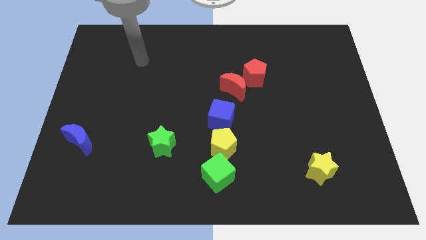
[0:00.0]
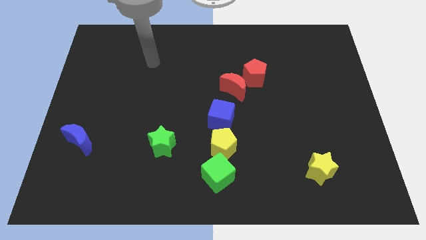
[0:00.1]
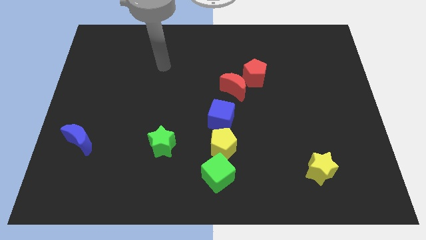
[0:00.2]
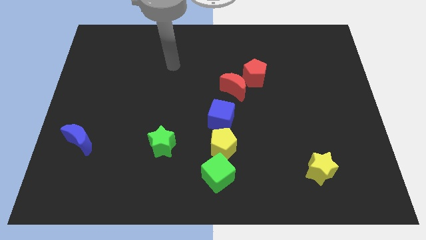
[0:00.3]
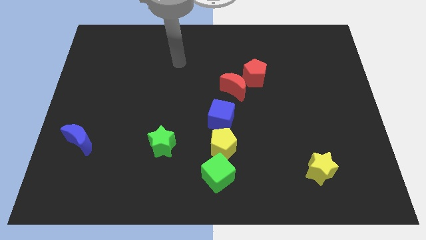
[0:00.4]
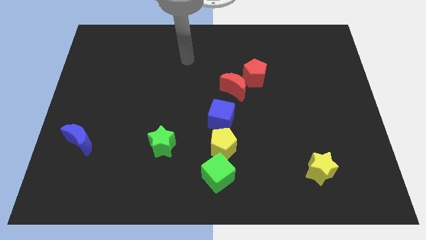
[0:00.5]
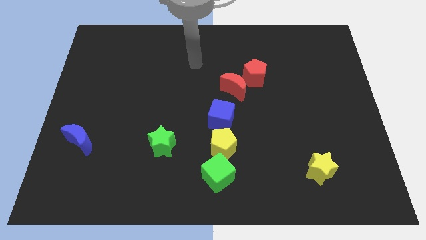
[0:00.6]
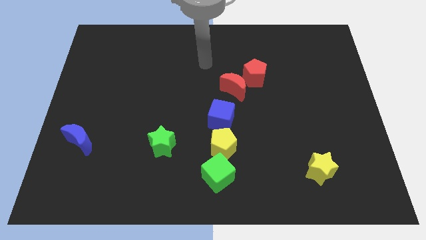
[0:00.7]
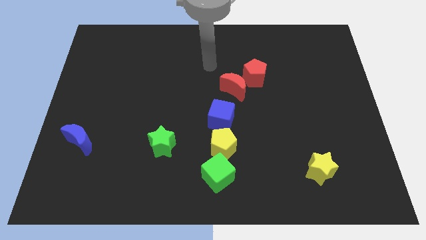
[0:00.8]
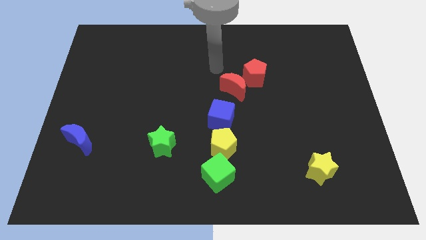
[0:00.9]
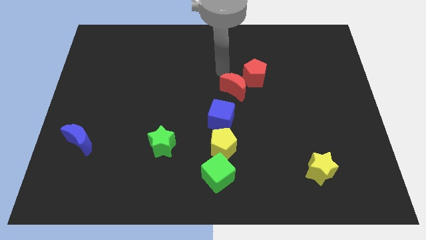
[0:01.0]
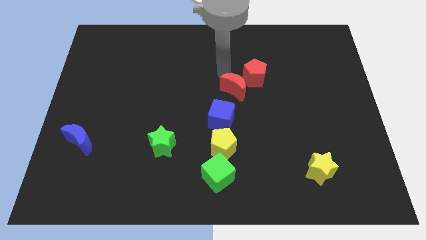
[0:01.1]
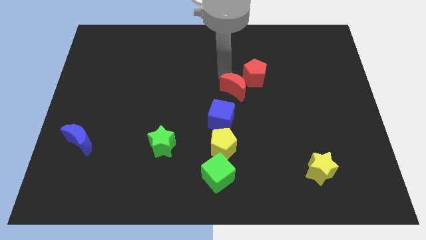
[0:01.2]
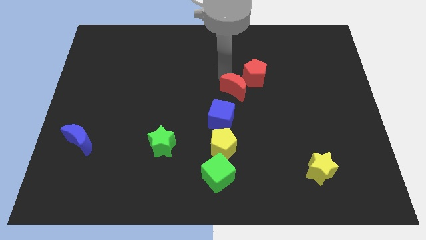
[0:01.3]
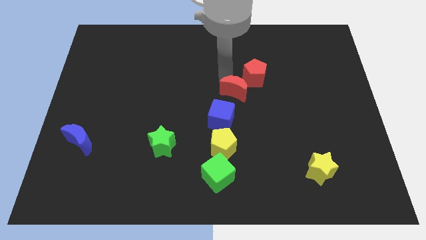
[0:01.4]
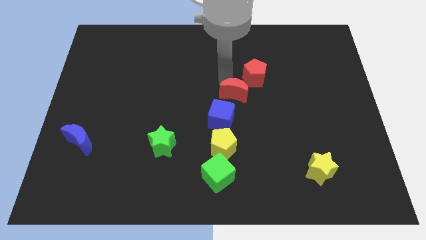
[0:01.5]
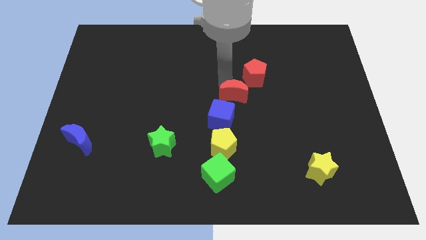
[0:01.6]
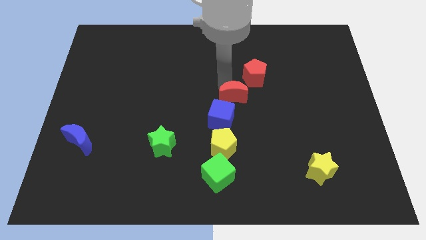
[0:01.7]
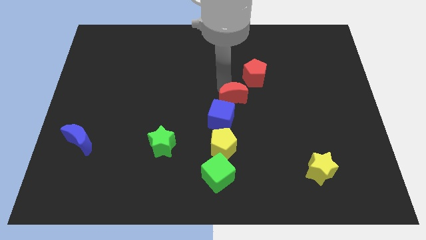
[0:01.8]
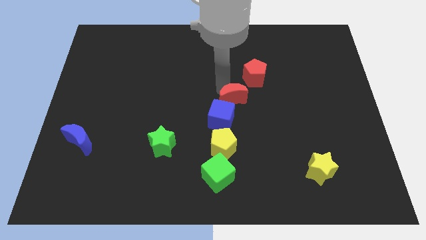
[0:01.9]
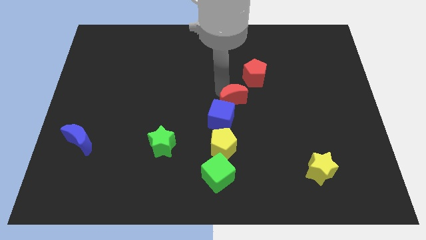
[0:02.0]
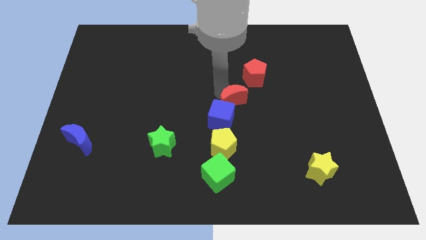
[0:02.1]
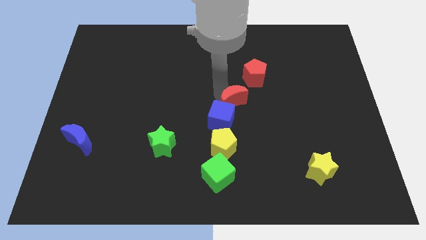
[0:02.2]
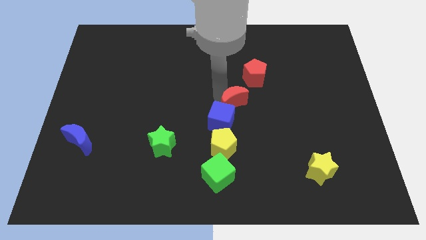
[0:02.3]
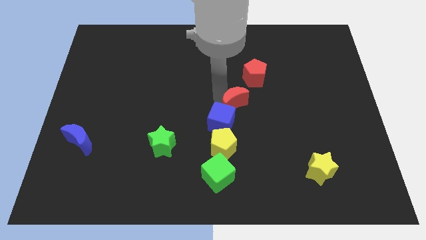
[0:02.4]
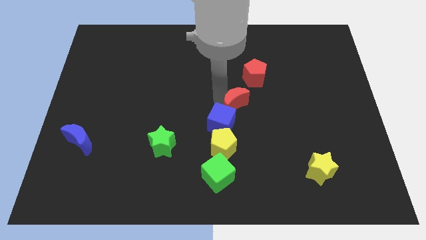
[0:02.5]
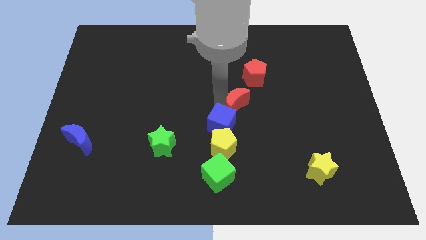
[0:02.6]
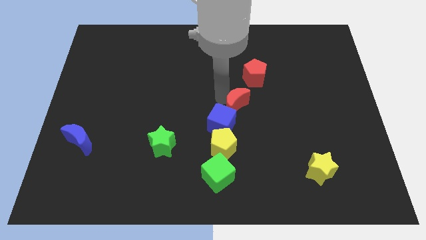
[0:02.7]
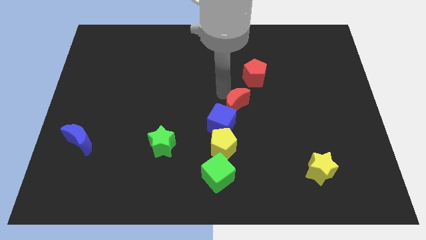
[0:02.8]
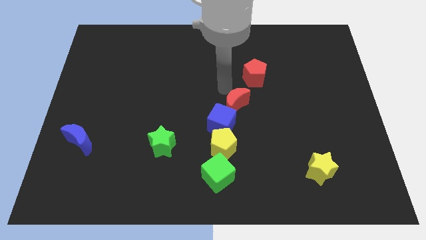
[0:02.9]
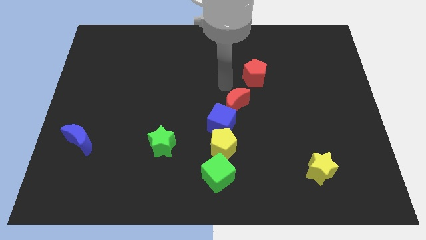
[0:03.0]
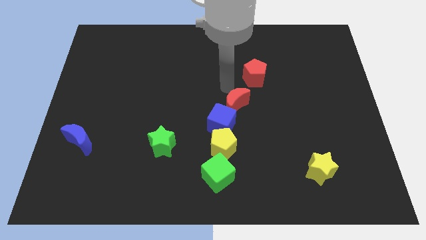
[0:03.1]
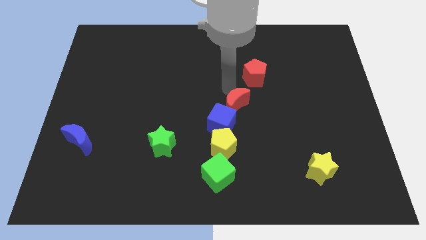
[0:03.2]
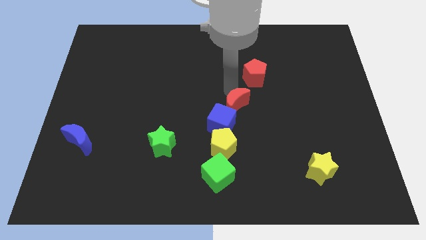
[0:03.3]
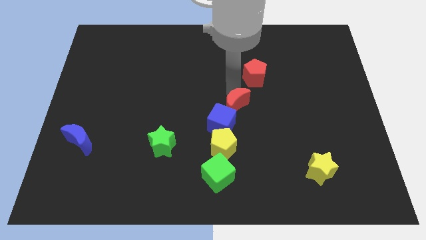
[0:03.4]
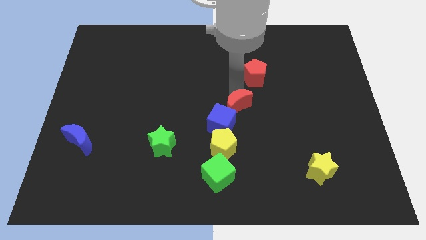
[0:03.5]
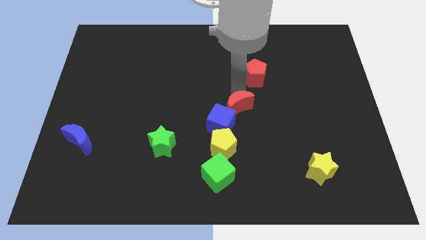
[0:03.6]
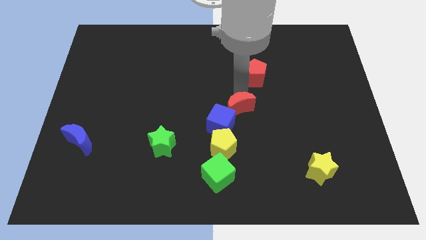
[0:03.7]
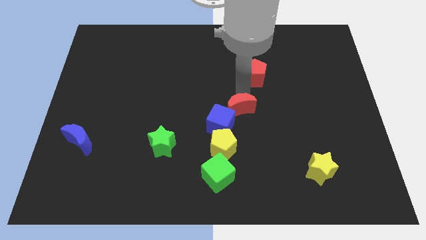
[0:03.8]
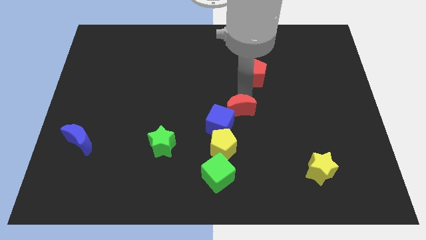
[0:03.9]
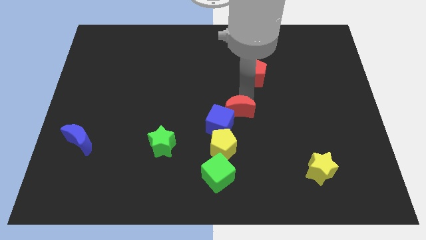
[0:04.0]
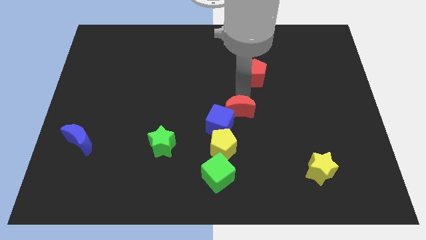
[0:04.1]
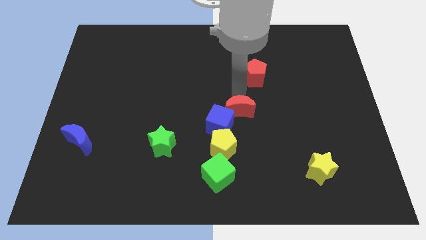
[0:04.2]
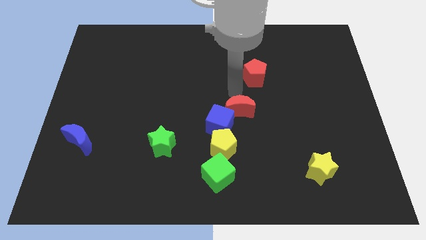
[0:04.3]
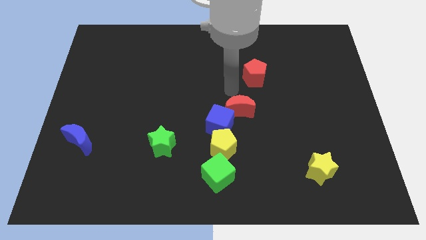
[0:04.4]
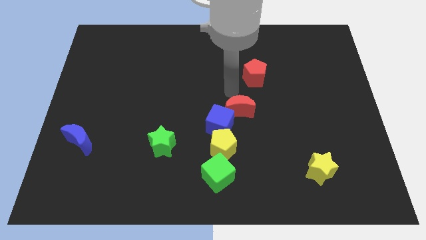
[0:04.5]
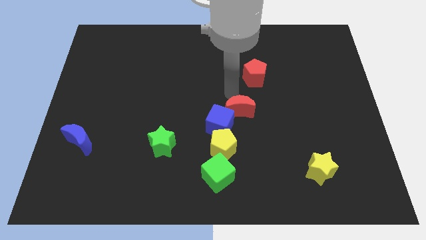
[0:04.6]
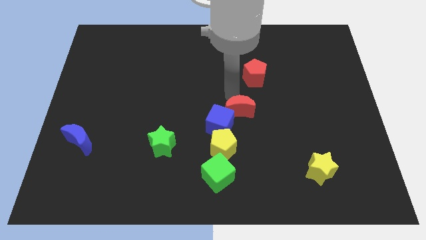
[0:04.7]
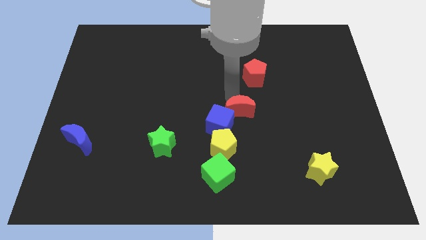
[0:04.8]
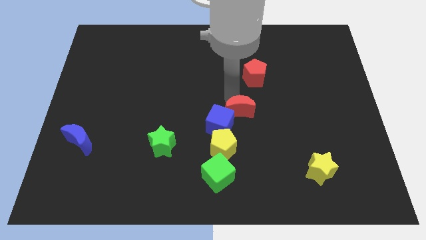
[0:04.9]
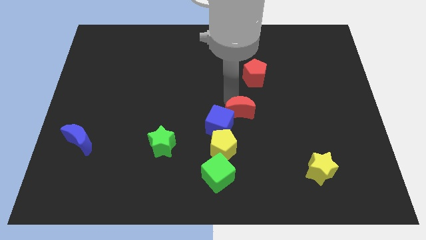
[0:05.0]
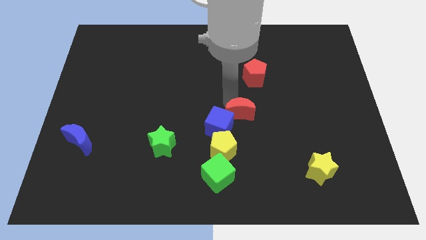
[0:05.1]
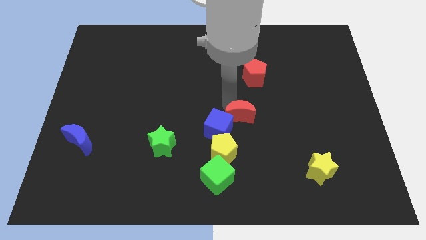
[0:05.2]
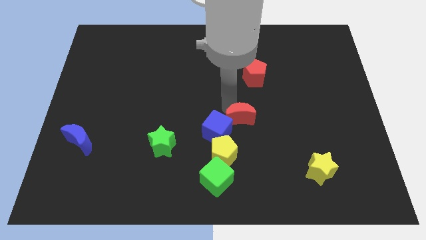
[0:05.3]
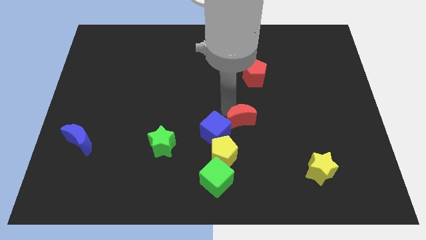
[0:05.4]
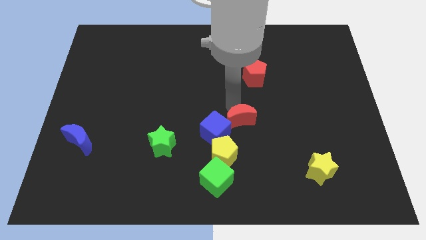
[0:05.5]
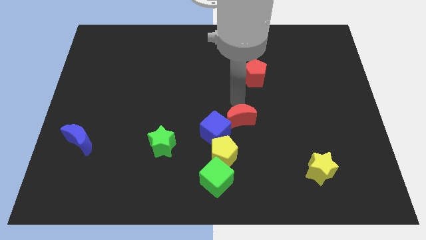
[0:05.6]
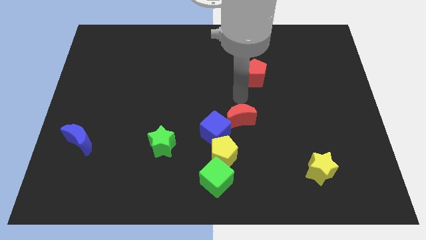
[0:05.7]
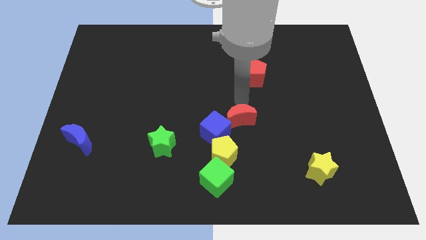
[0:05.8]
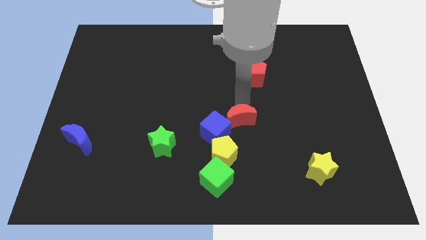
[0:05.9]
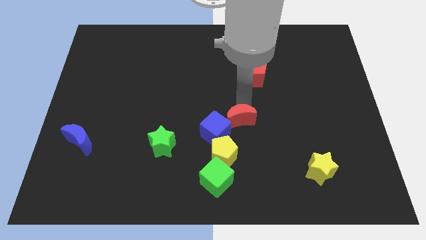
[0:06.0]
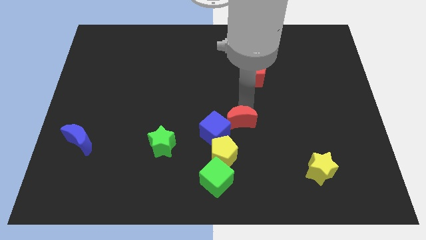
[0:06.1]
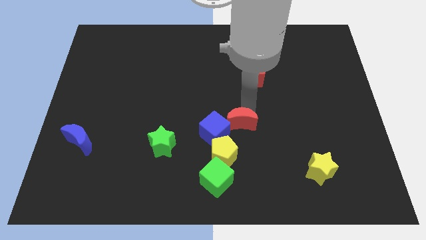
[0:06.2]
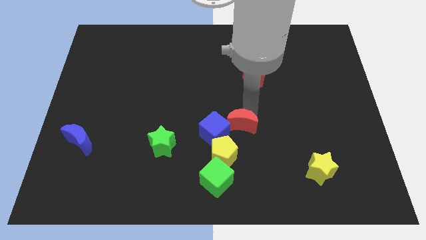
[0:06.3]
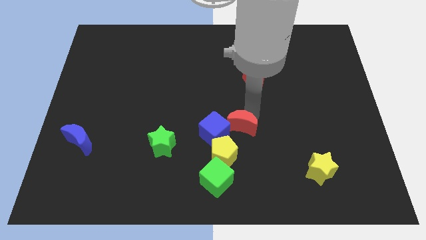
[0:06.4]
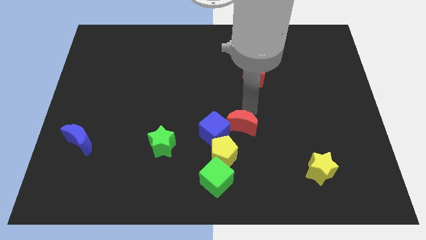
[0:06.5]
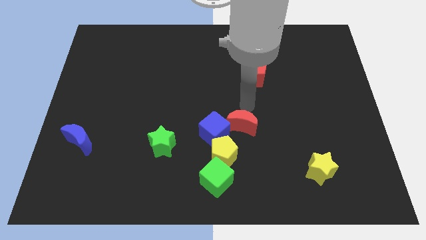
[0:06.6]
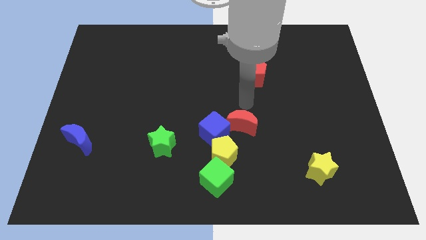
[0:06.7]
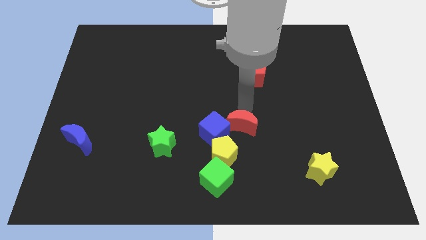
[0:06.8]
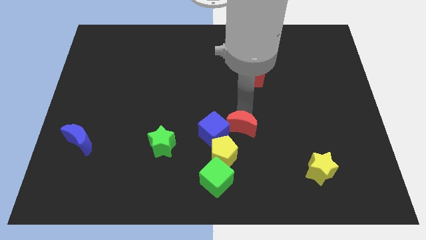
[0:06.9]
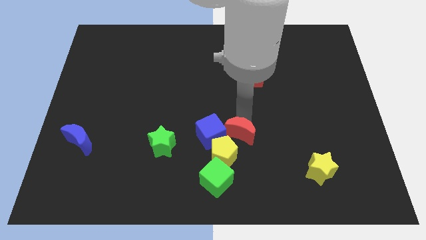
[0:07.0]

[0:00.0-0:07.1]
put the red moon to the bottom right side of the blue cube
